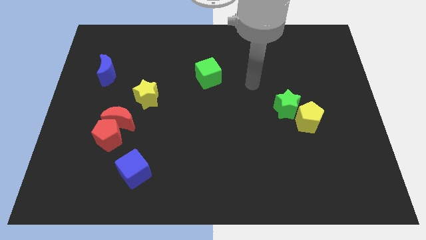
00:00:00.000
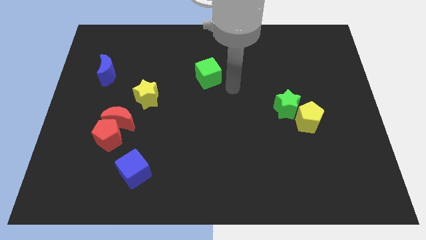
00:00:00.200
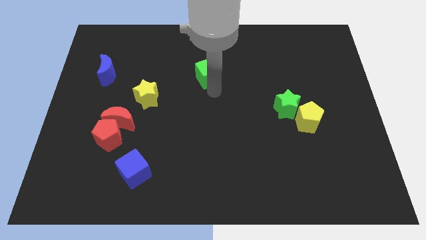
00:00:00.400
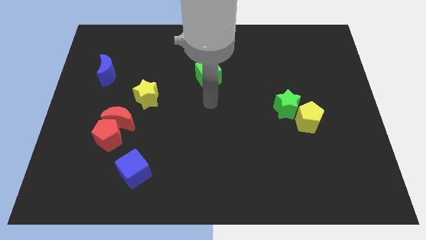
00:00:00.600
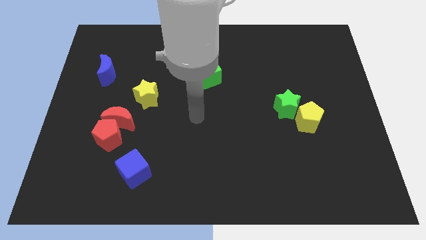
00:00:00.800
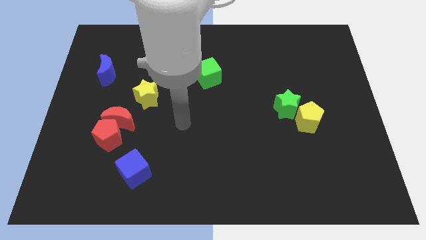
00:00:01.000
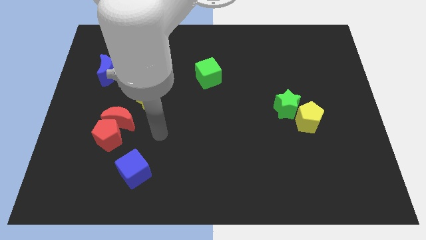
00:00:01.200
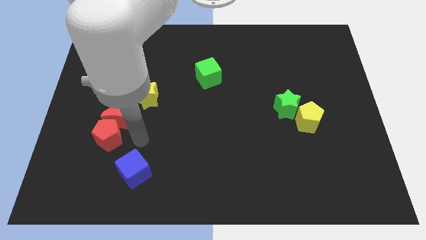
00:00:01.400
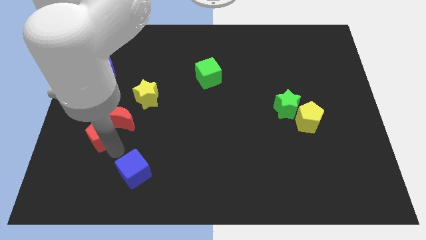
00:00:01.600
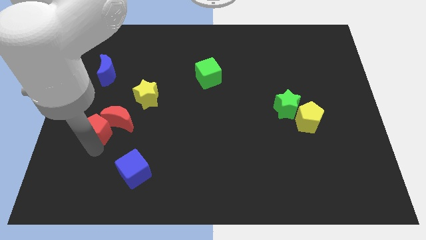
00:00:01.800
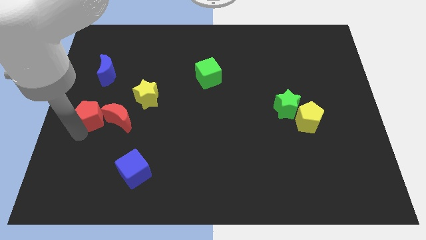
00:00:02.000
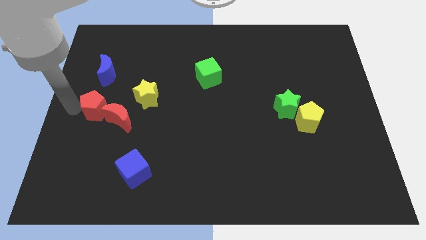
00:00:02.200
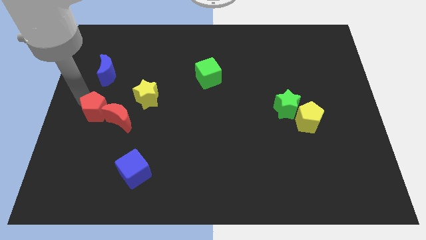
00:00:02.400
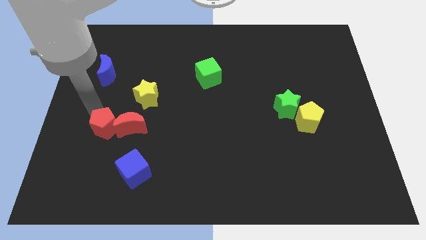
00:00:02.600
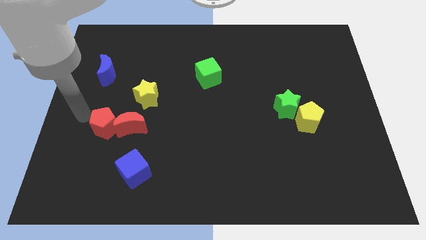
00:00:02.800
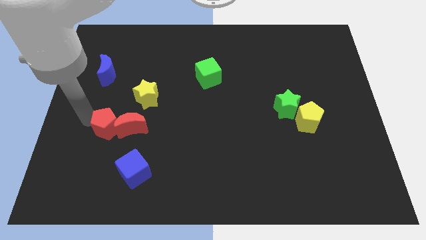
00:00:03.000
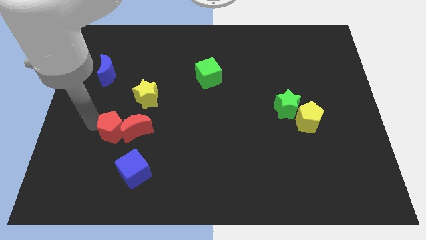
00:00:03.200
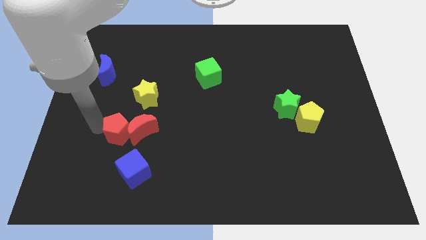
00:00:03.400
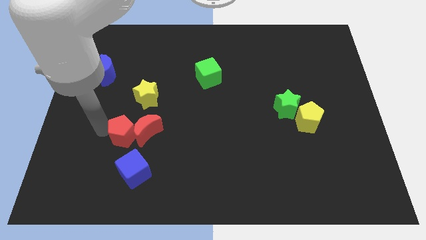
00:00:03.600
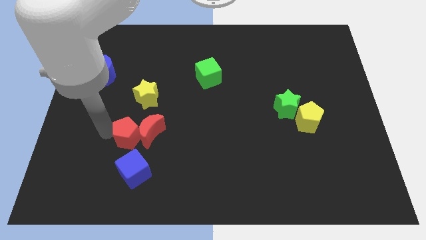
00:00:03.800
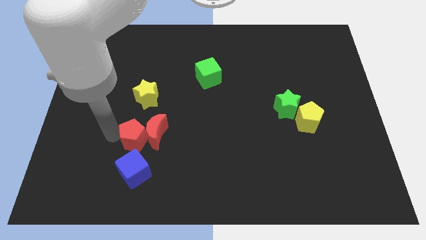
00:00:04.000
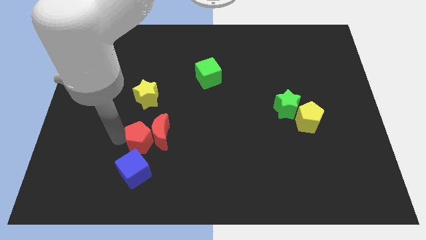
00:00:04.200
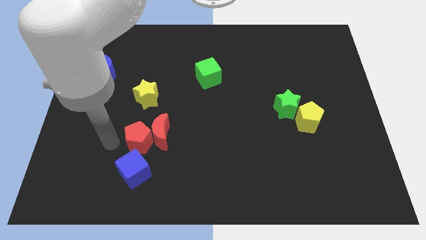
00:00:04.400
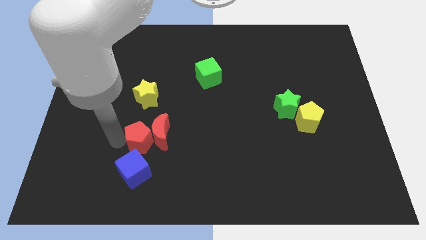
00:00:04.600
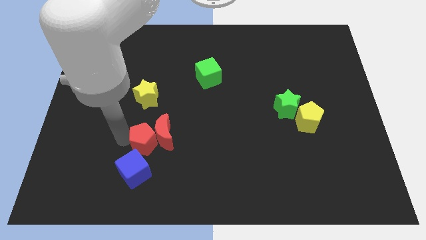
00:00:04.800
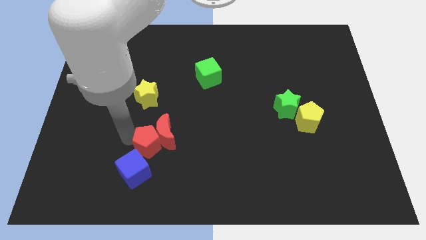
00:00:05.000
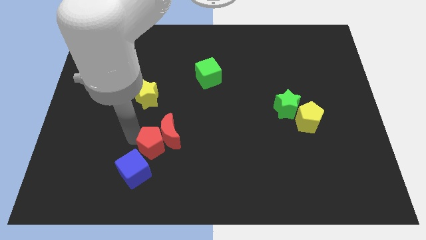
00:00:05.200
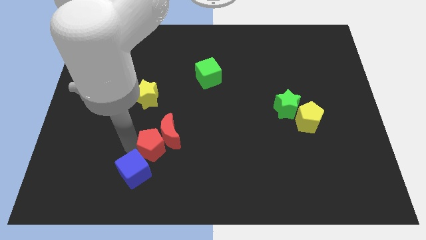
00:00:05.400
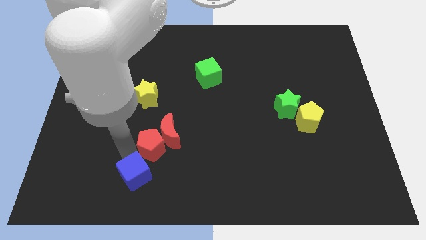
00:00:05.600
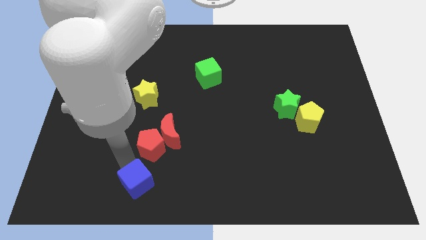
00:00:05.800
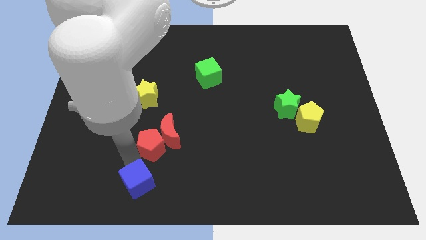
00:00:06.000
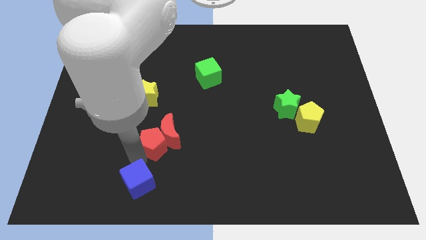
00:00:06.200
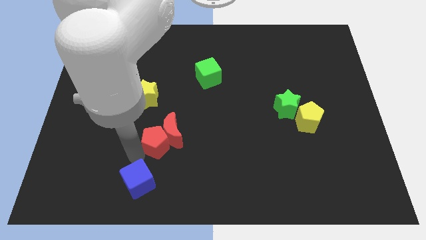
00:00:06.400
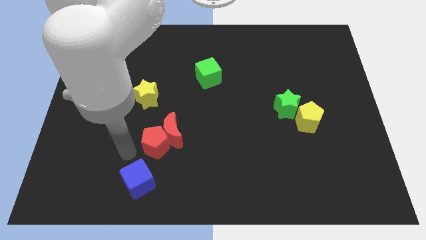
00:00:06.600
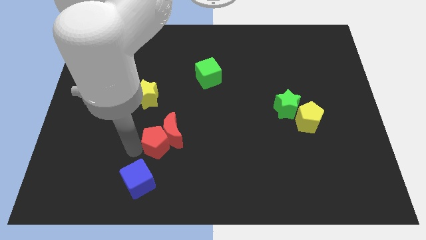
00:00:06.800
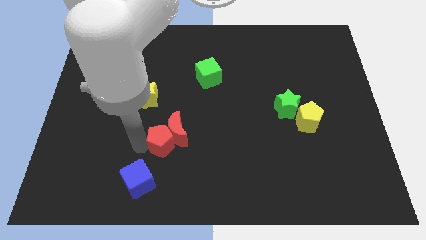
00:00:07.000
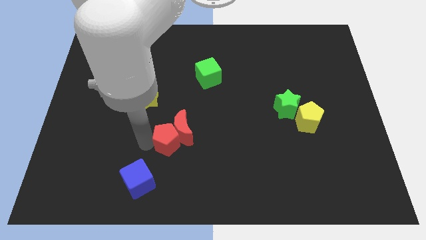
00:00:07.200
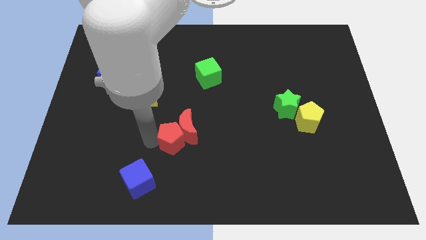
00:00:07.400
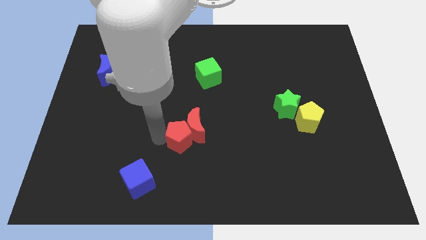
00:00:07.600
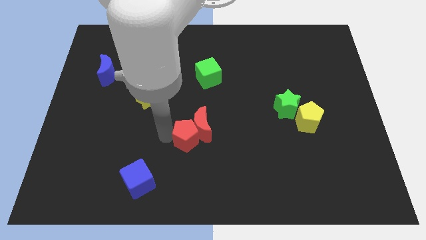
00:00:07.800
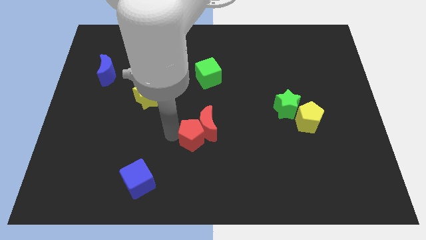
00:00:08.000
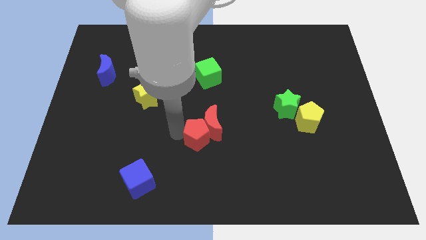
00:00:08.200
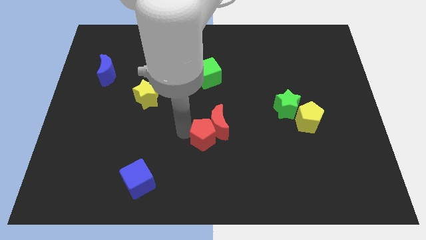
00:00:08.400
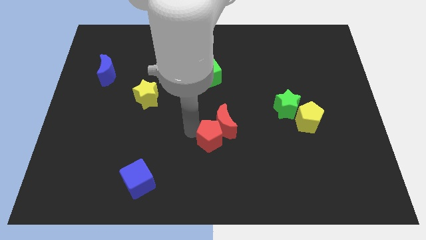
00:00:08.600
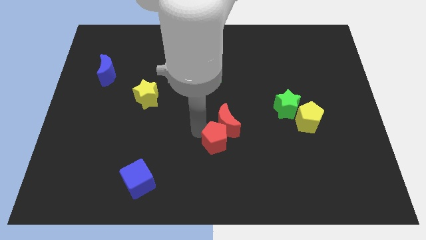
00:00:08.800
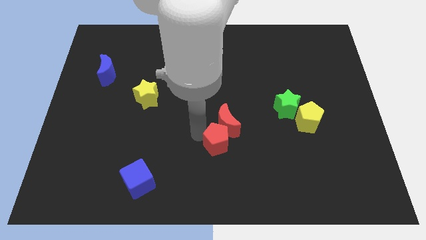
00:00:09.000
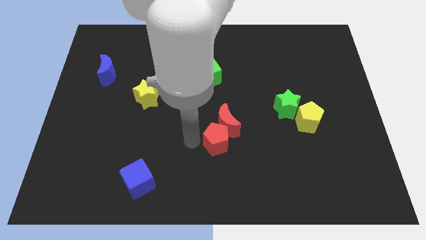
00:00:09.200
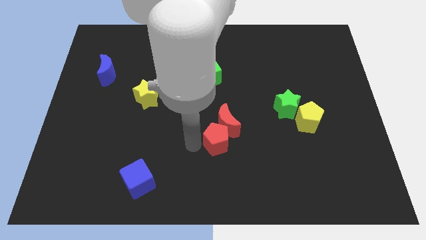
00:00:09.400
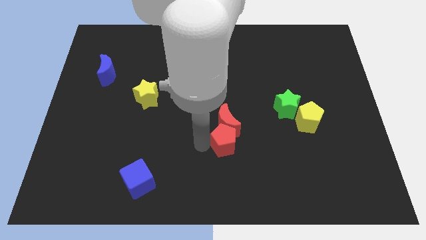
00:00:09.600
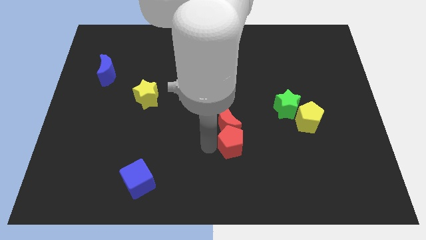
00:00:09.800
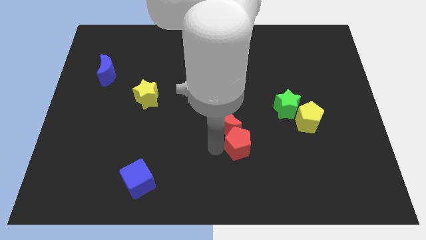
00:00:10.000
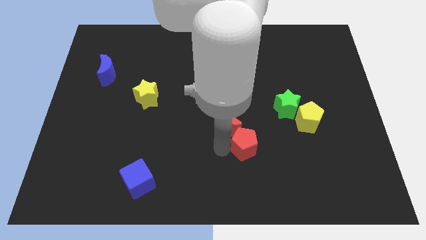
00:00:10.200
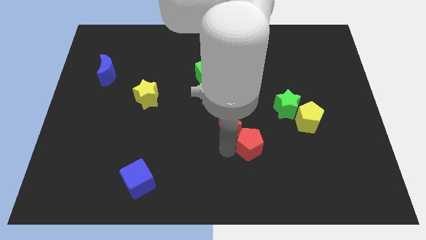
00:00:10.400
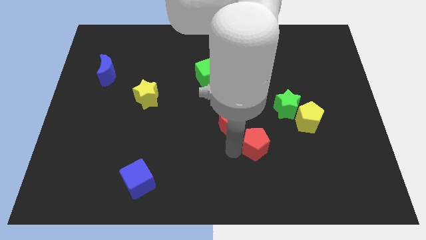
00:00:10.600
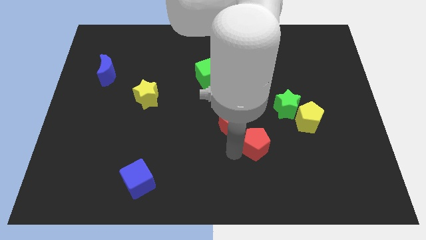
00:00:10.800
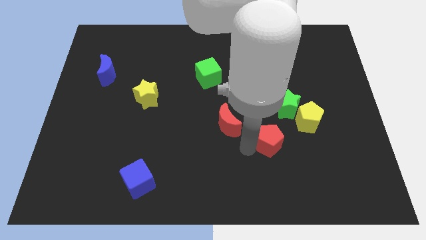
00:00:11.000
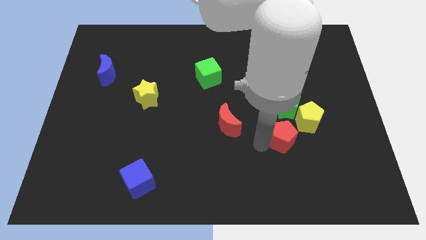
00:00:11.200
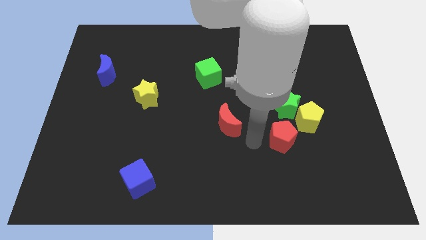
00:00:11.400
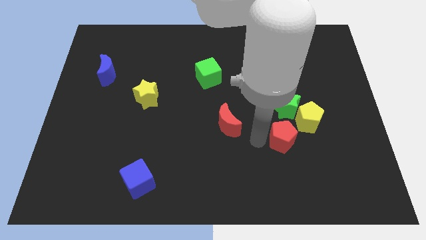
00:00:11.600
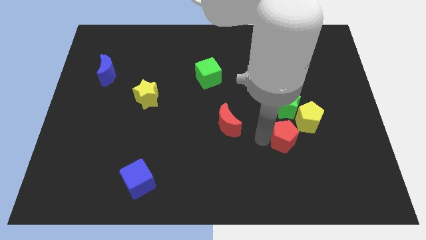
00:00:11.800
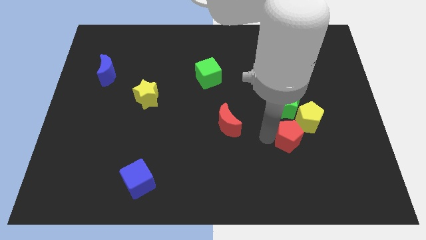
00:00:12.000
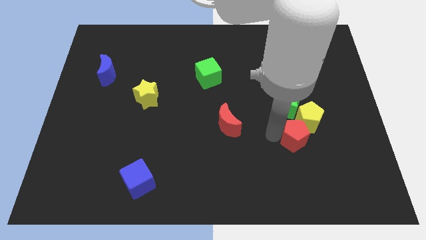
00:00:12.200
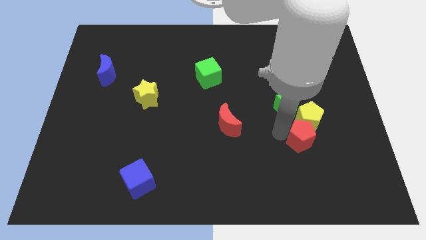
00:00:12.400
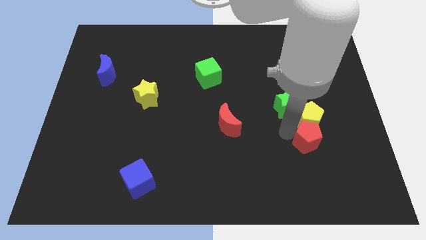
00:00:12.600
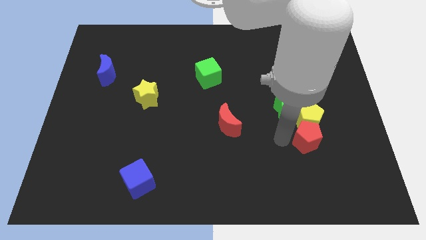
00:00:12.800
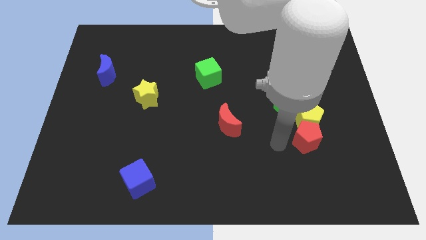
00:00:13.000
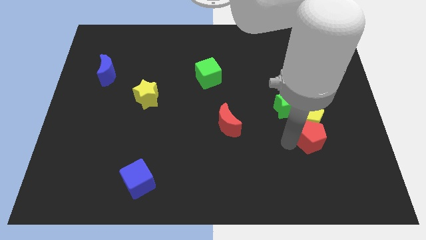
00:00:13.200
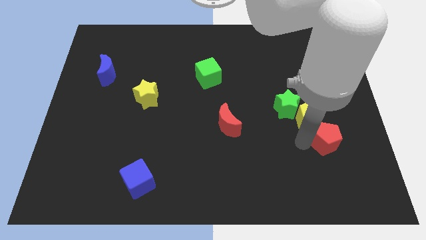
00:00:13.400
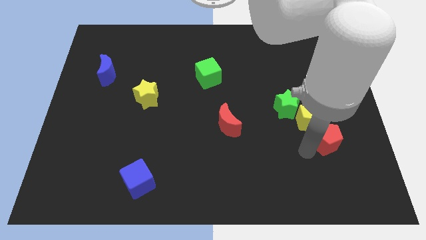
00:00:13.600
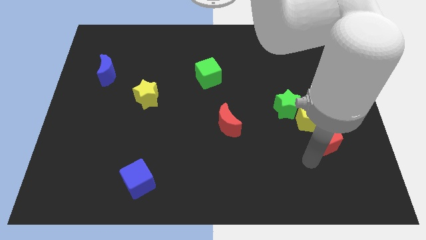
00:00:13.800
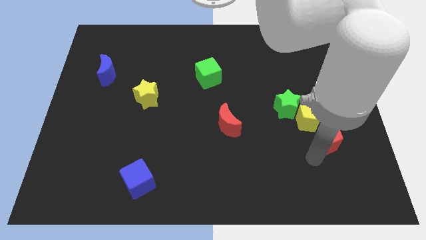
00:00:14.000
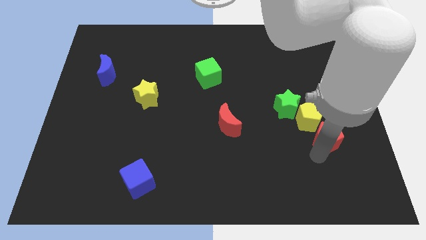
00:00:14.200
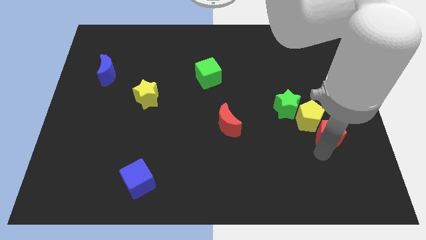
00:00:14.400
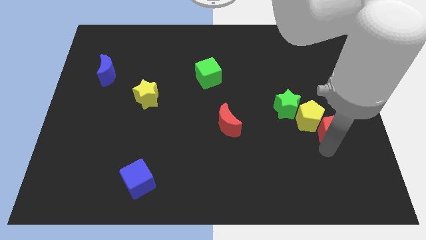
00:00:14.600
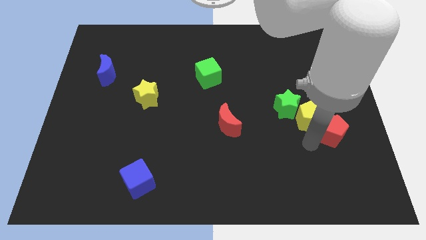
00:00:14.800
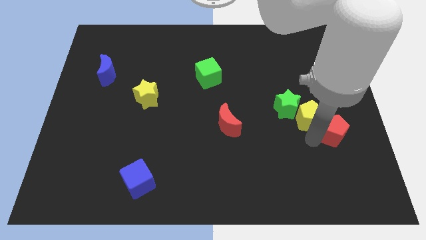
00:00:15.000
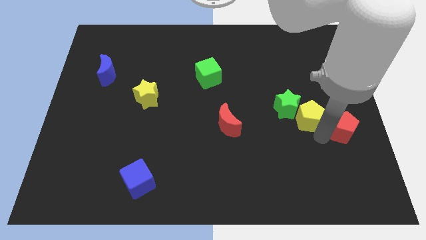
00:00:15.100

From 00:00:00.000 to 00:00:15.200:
move the red pentagon to the center right
